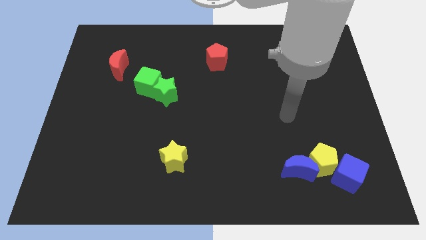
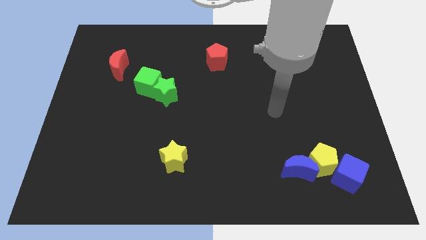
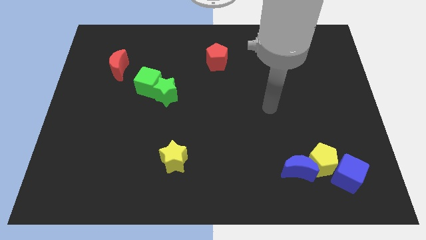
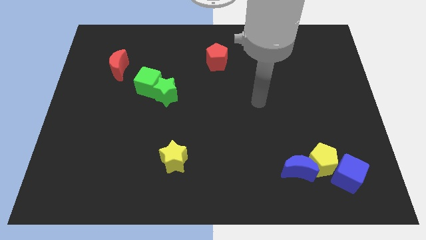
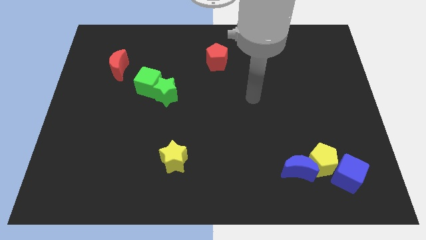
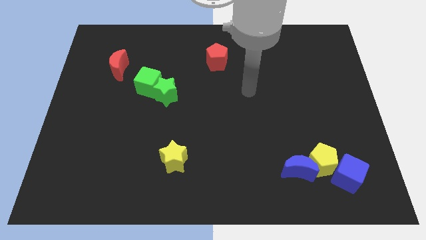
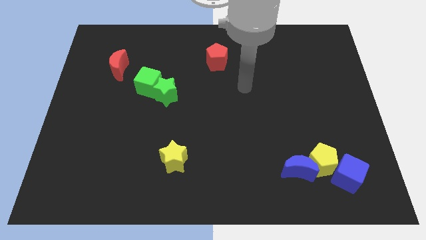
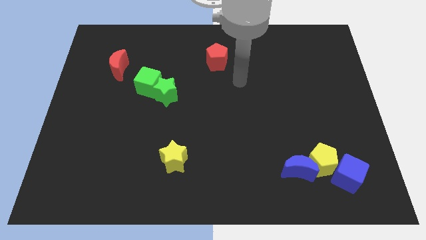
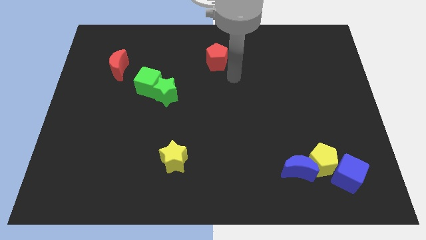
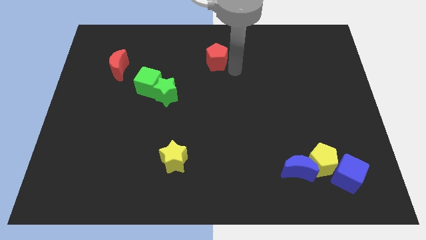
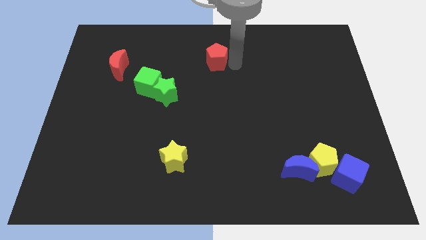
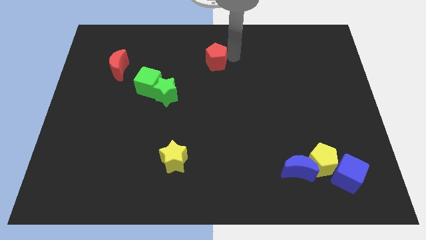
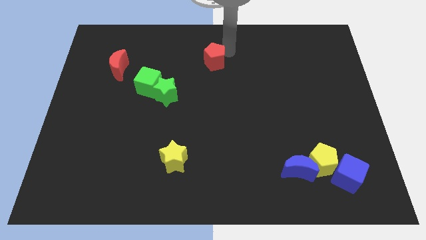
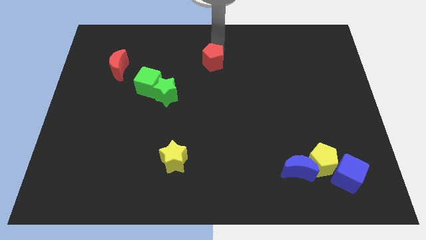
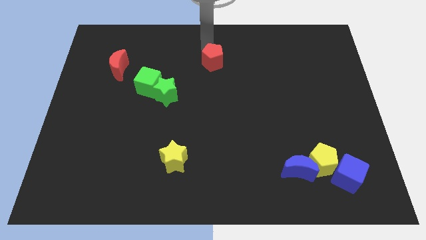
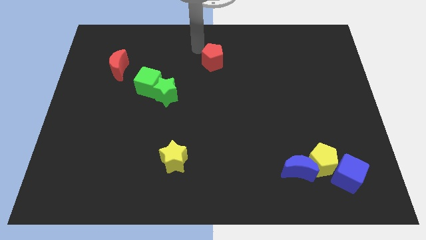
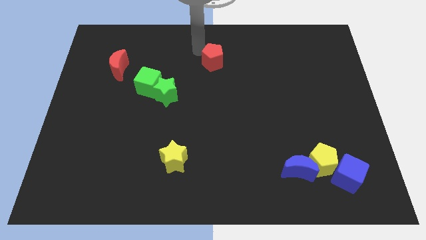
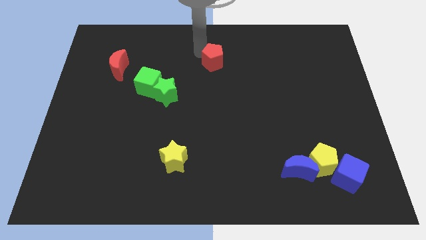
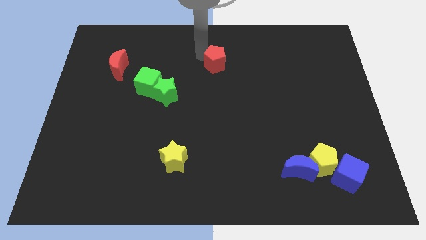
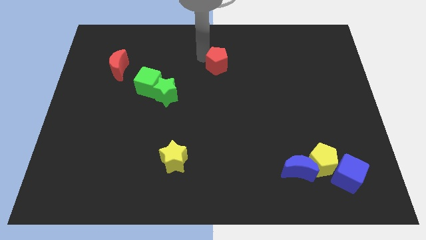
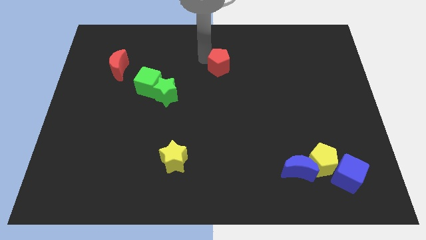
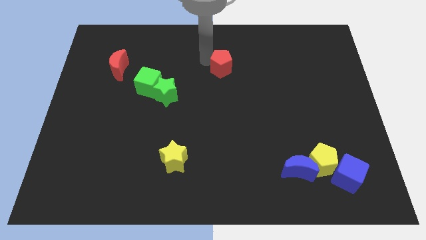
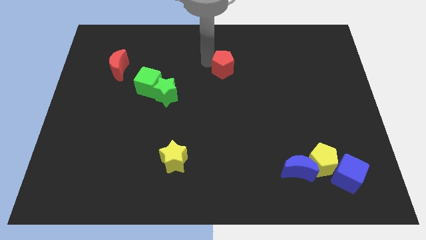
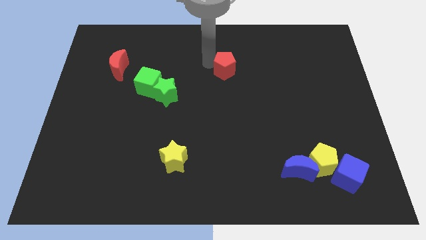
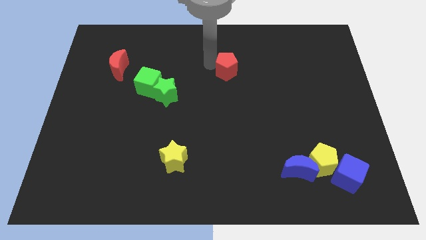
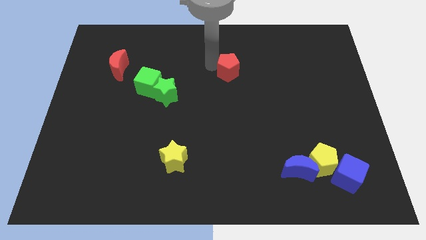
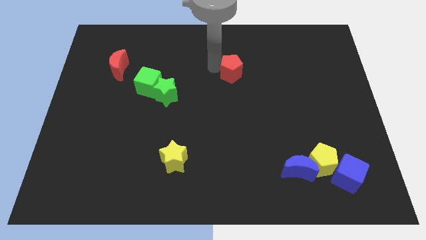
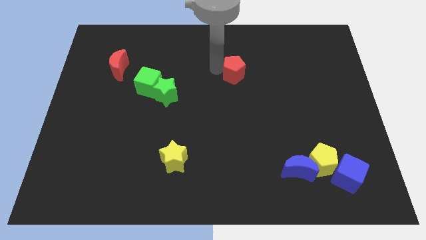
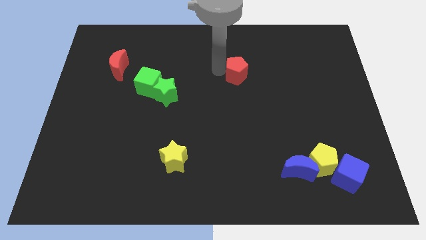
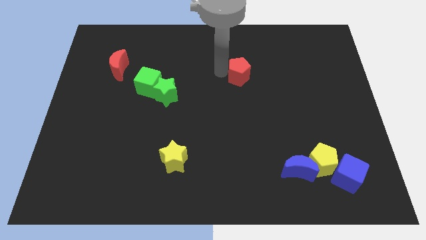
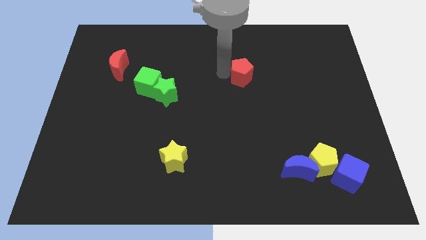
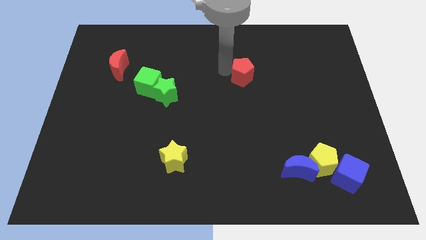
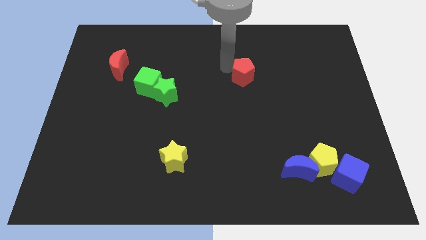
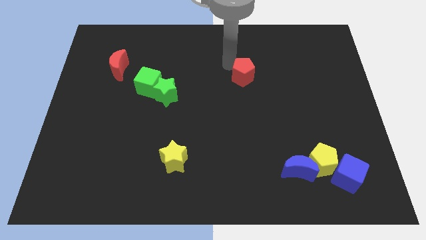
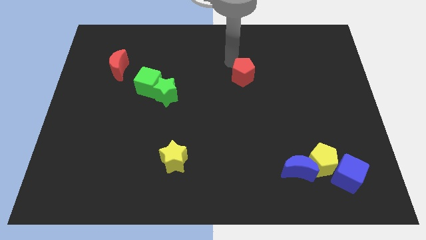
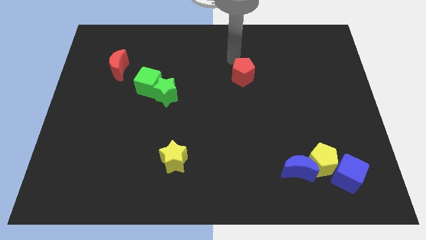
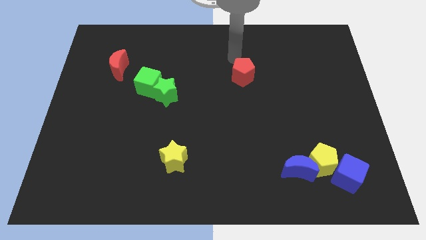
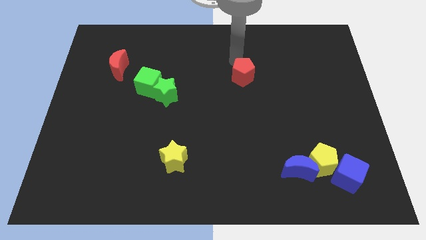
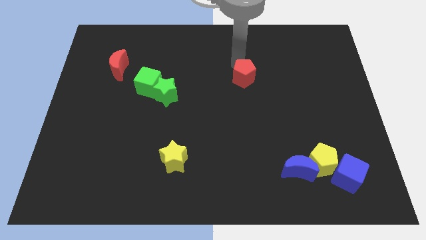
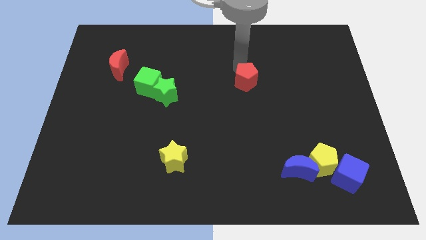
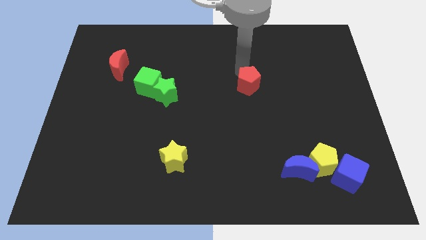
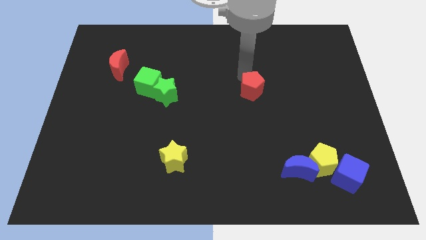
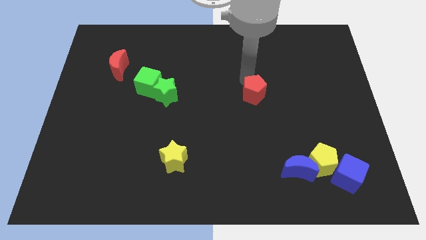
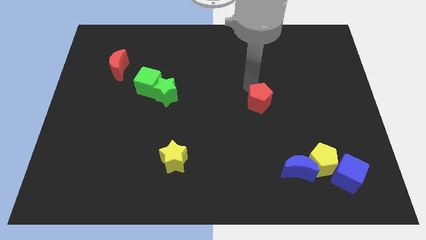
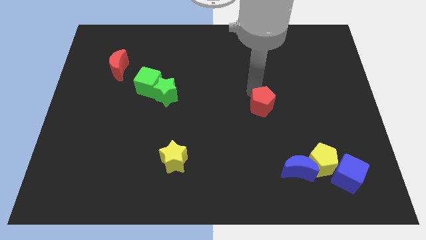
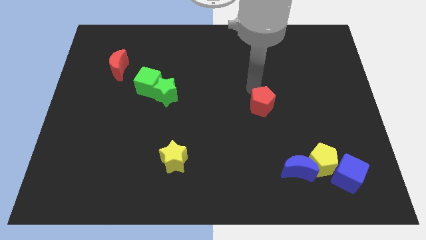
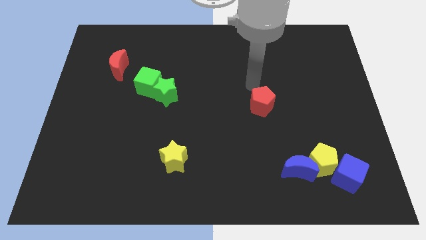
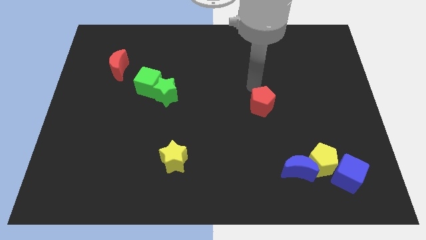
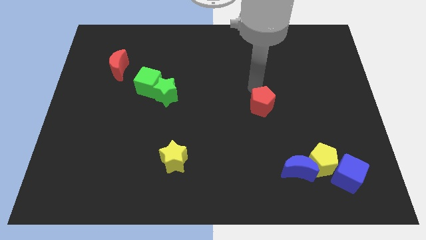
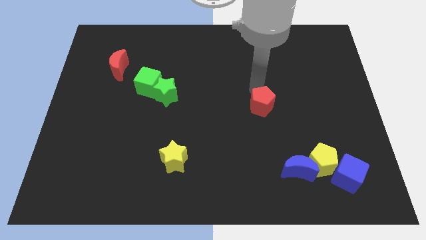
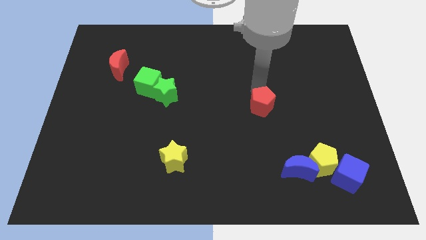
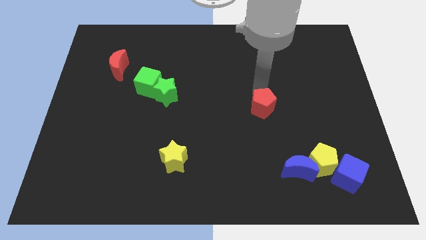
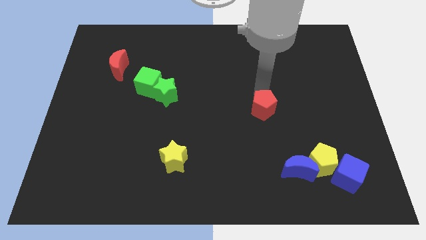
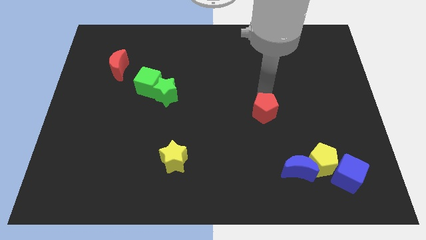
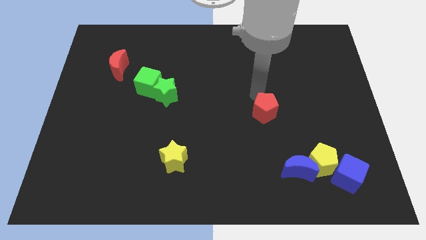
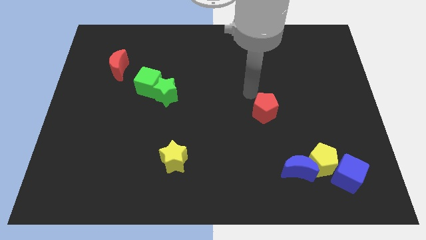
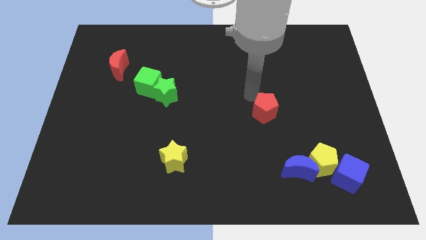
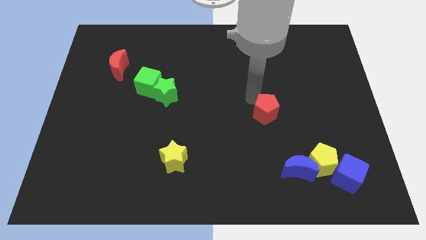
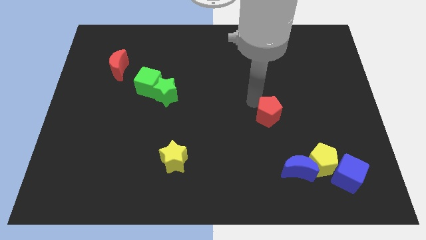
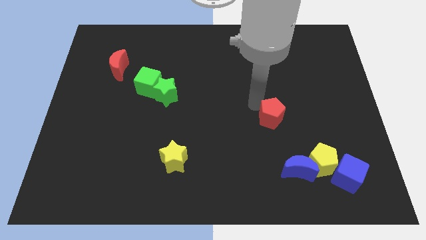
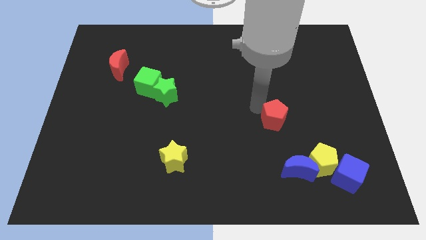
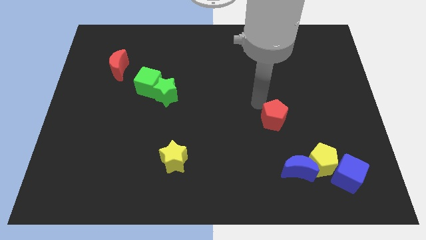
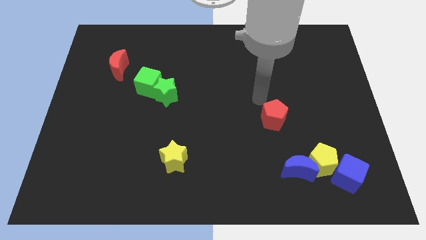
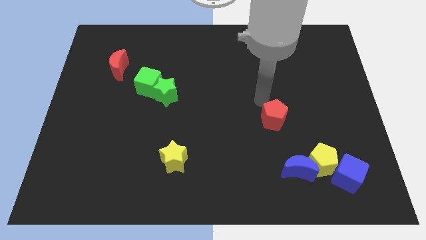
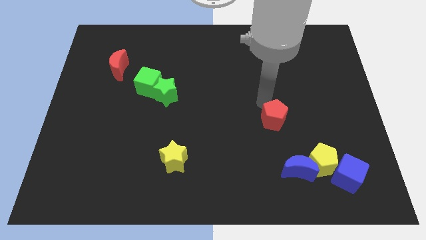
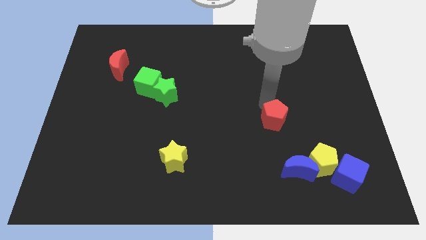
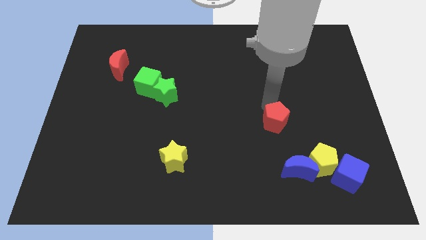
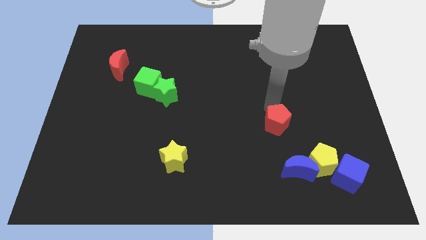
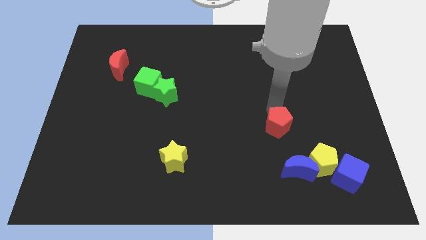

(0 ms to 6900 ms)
slide the red pentagon to the top left of the yellow pentagon
